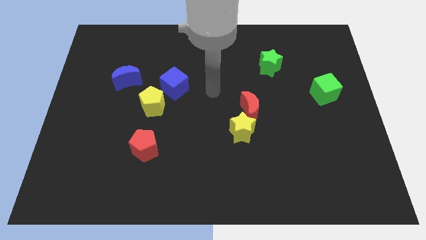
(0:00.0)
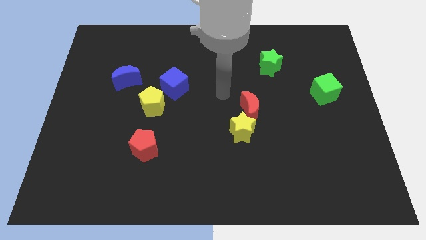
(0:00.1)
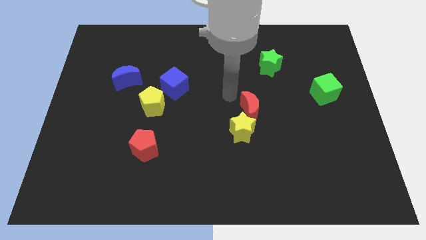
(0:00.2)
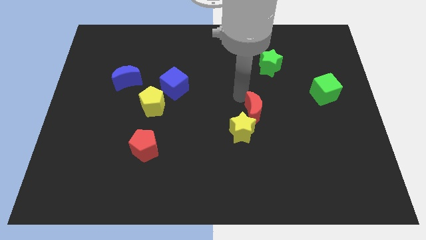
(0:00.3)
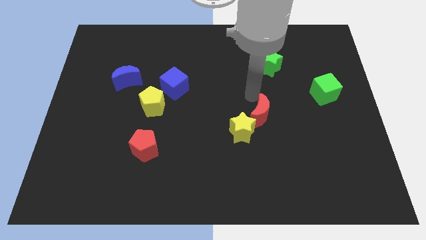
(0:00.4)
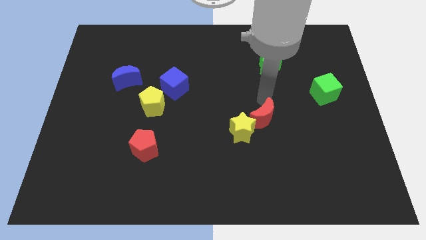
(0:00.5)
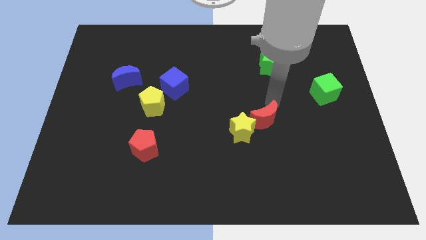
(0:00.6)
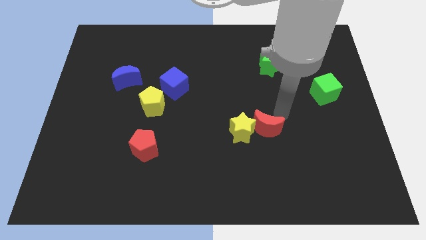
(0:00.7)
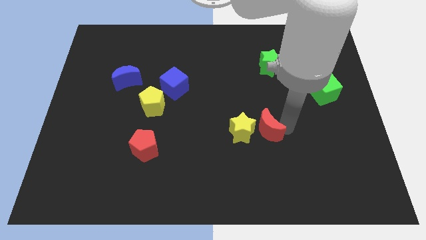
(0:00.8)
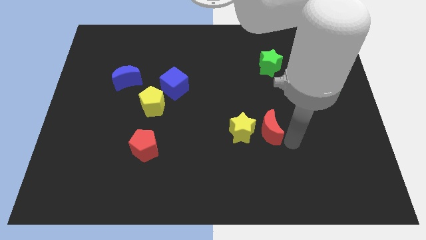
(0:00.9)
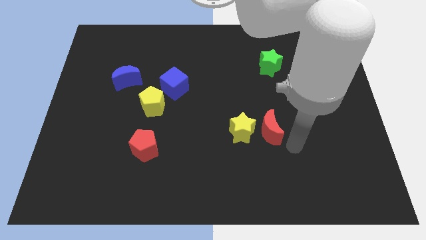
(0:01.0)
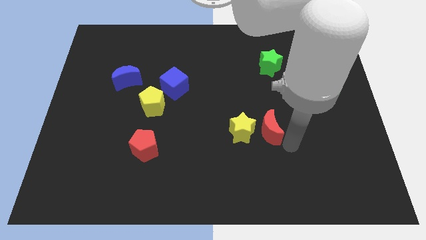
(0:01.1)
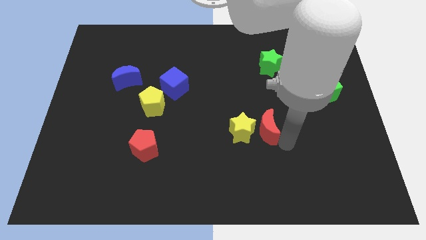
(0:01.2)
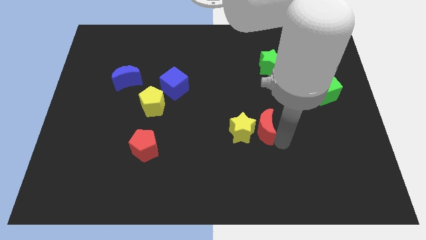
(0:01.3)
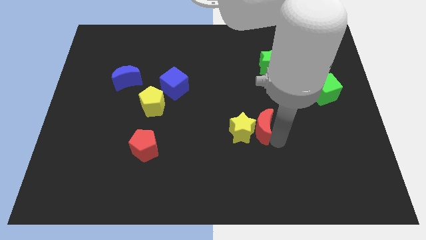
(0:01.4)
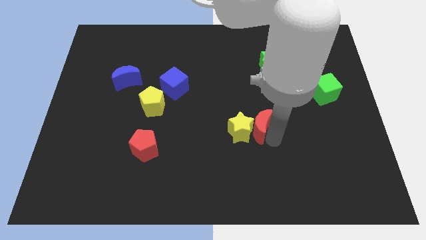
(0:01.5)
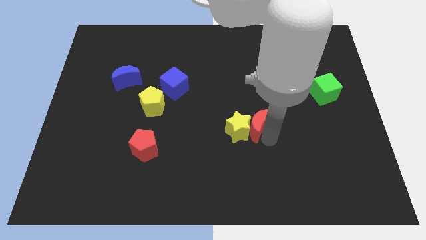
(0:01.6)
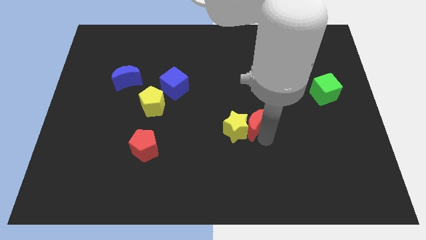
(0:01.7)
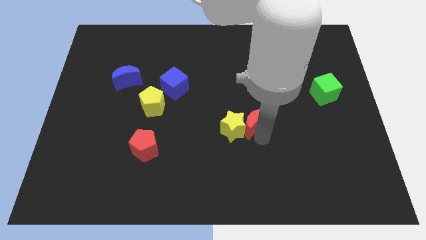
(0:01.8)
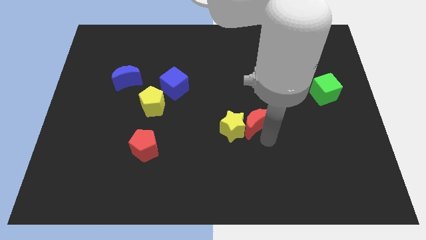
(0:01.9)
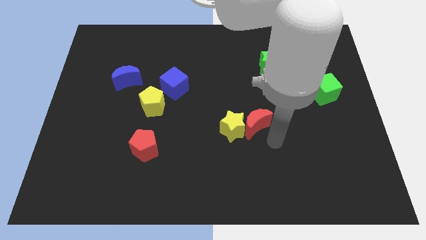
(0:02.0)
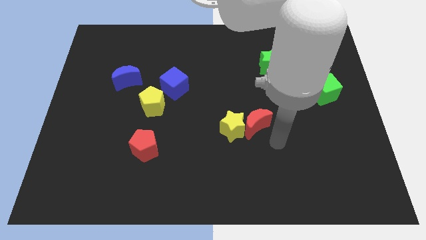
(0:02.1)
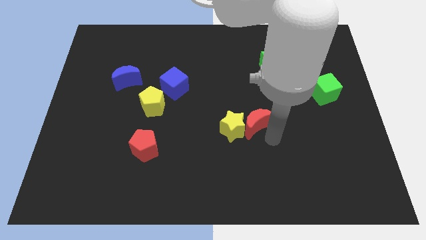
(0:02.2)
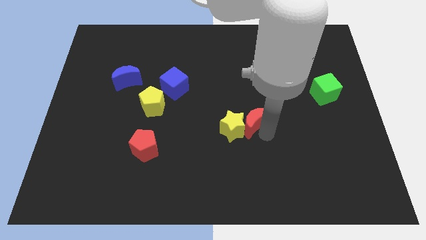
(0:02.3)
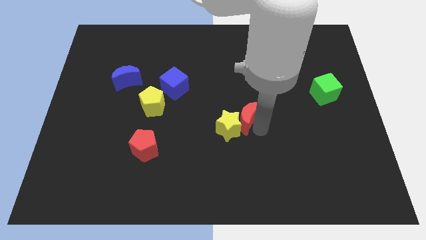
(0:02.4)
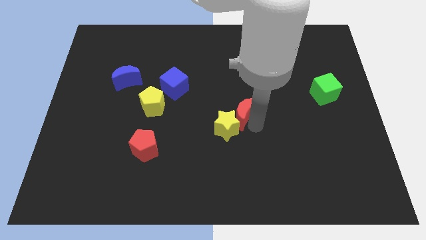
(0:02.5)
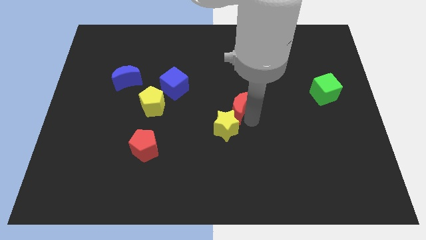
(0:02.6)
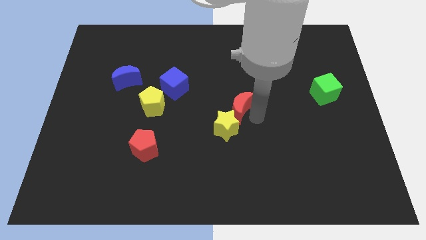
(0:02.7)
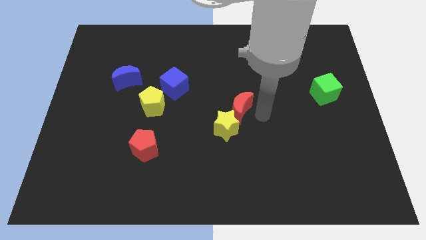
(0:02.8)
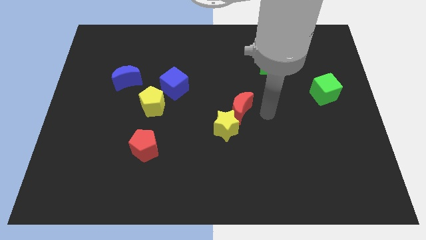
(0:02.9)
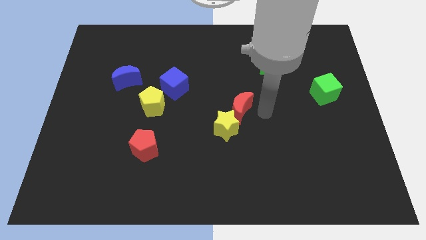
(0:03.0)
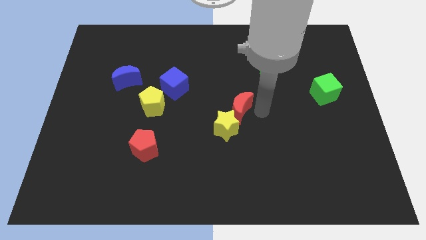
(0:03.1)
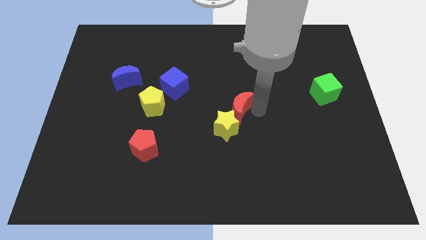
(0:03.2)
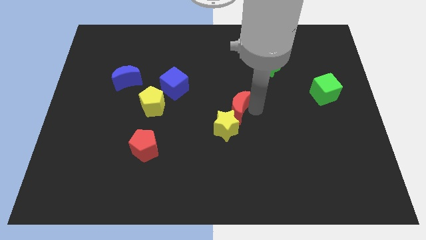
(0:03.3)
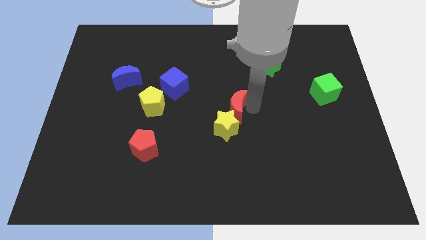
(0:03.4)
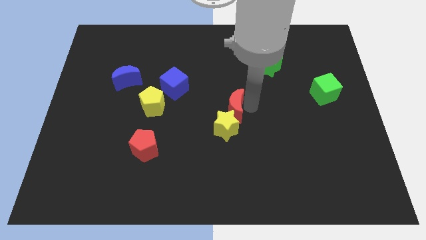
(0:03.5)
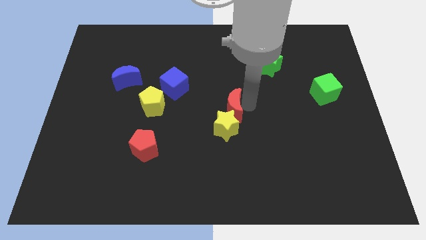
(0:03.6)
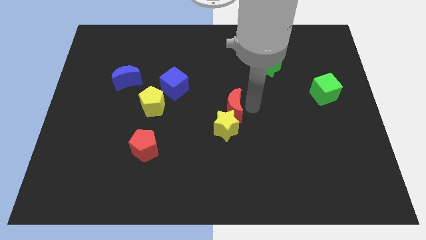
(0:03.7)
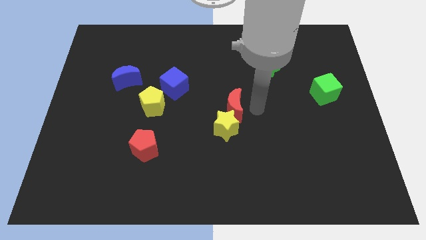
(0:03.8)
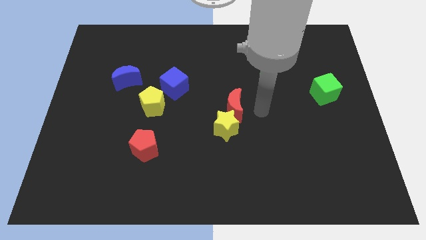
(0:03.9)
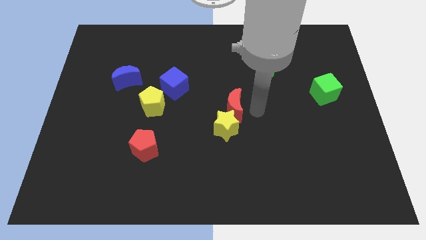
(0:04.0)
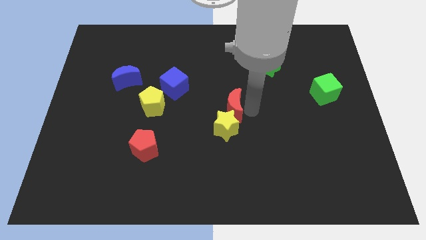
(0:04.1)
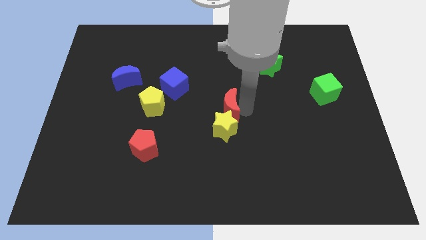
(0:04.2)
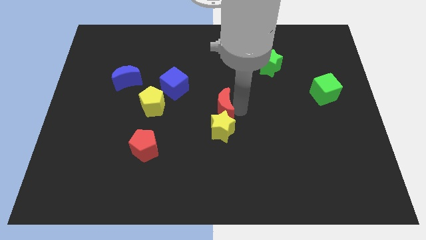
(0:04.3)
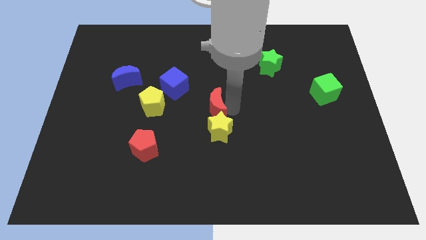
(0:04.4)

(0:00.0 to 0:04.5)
slide the red moon left a little

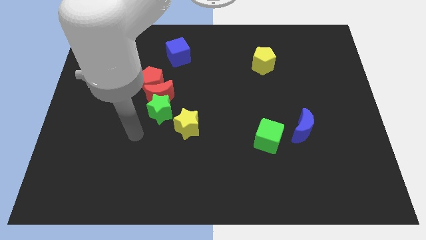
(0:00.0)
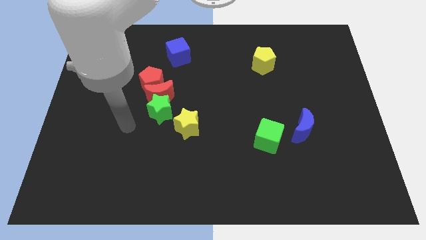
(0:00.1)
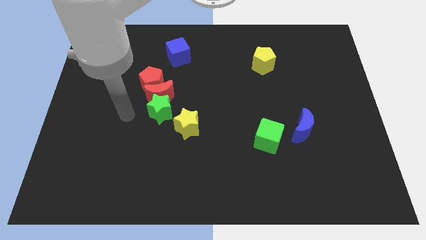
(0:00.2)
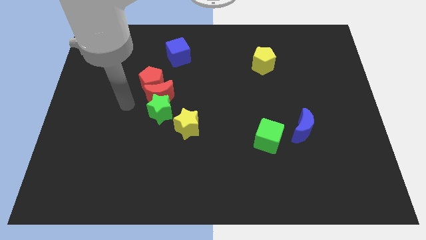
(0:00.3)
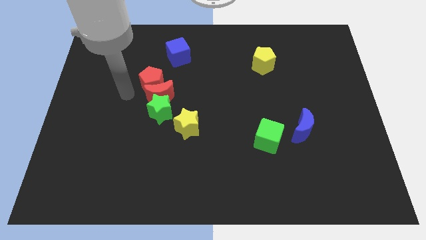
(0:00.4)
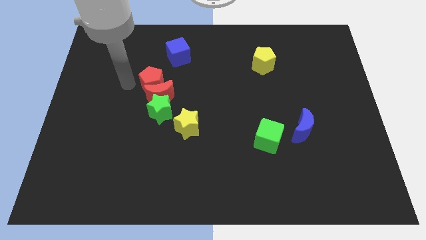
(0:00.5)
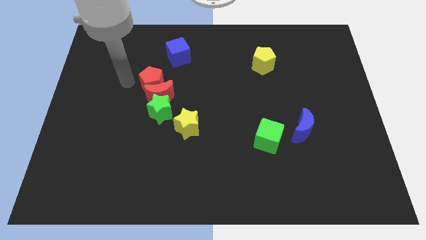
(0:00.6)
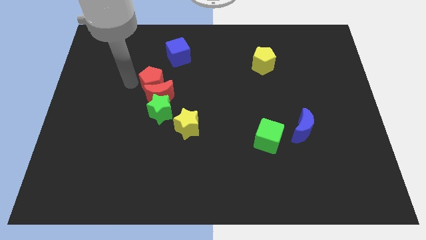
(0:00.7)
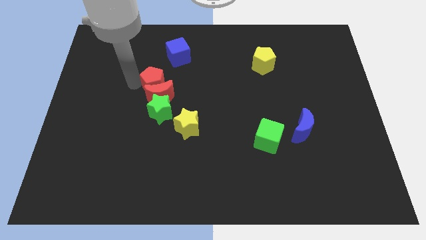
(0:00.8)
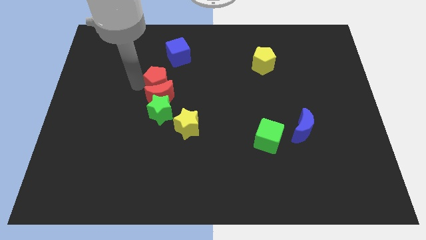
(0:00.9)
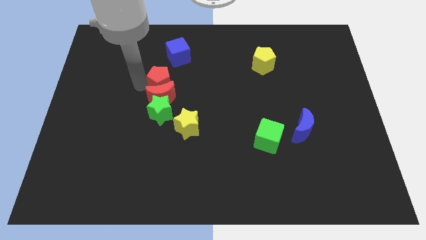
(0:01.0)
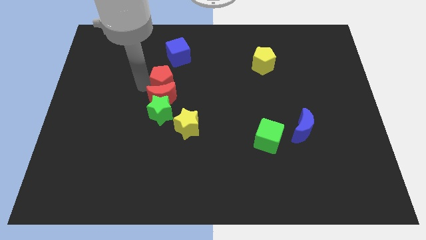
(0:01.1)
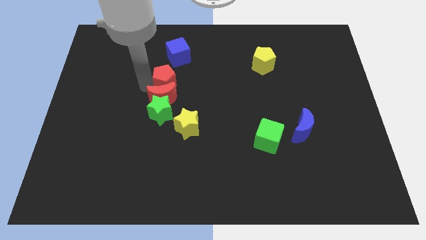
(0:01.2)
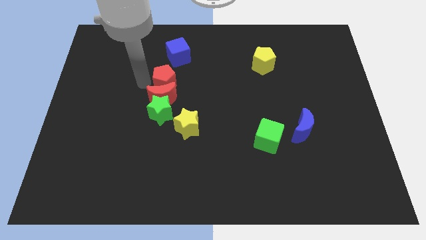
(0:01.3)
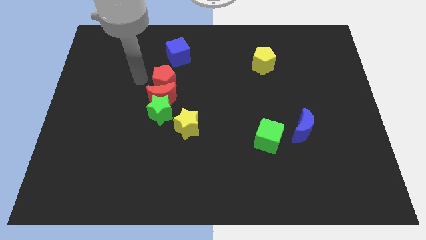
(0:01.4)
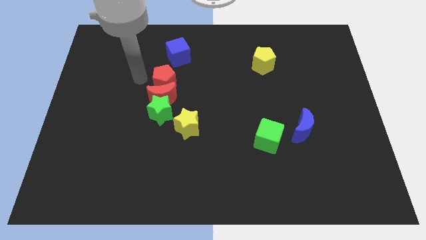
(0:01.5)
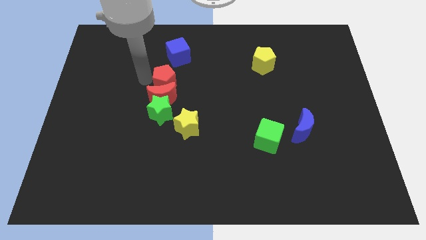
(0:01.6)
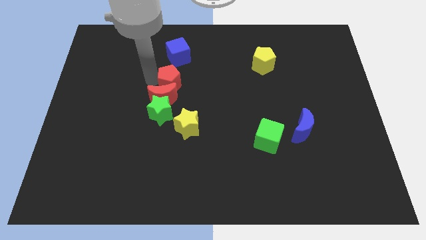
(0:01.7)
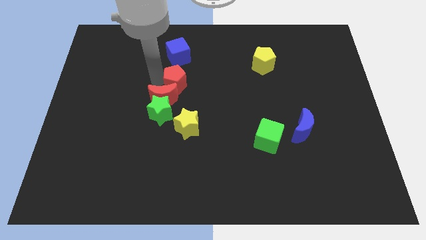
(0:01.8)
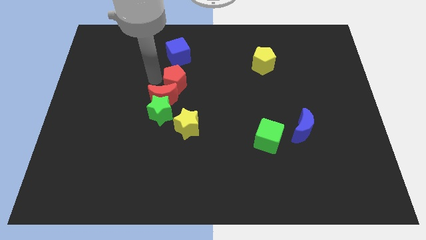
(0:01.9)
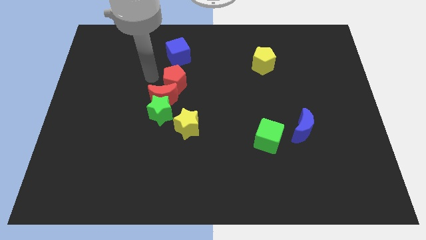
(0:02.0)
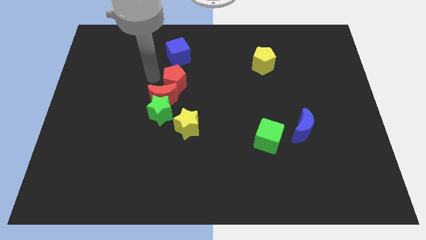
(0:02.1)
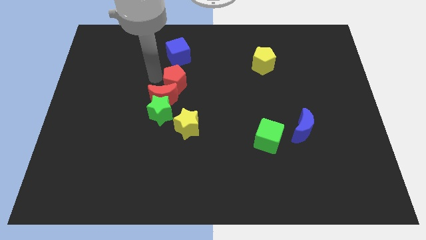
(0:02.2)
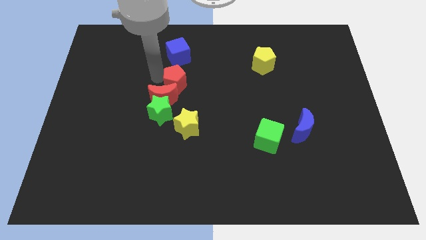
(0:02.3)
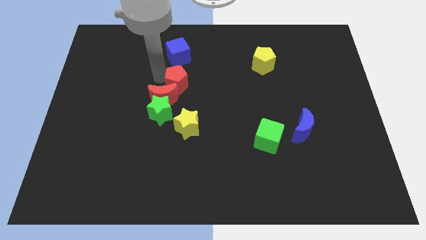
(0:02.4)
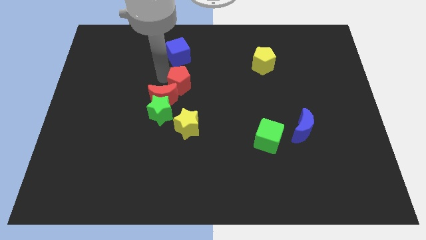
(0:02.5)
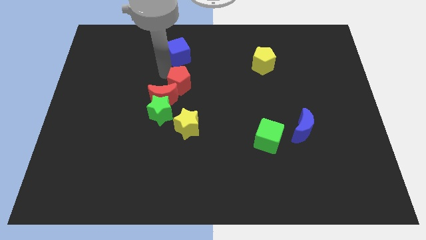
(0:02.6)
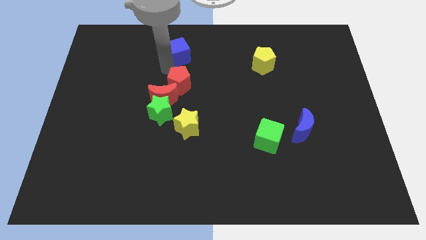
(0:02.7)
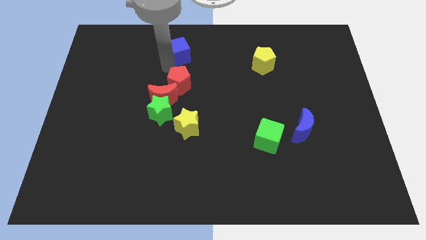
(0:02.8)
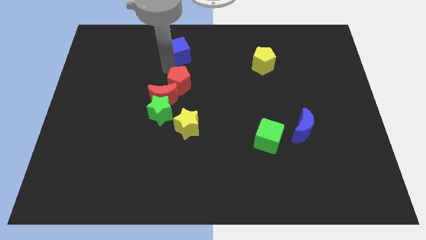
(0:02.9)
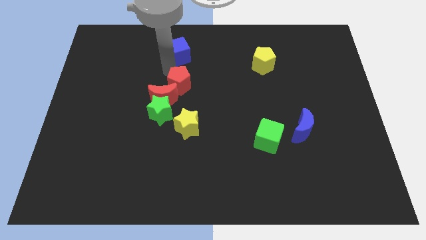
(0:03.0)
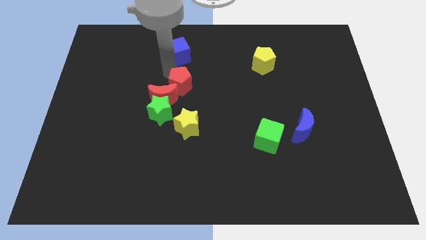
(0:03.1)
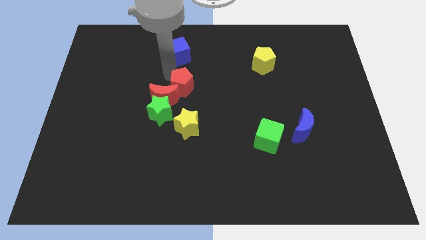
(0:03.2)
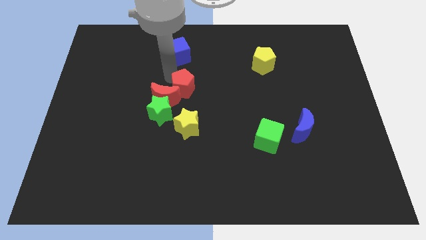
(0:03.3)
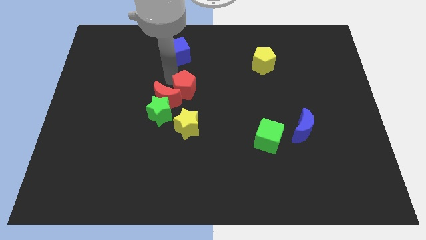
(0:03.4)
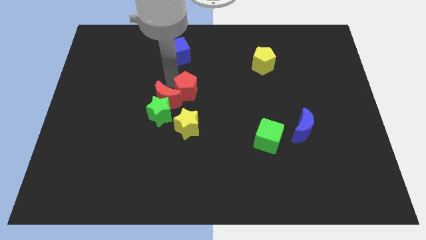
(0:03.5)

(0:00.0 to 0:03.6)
slightly move the red pentagon downwards and right
